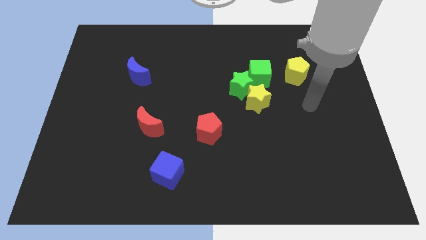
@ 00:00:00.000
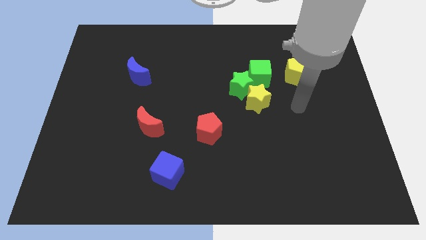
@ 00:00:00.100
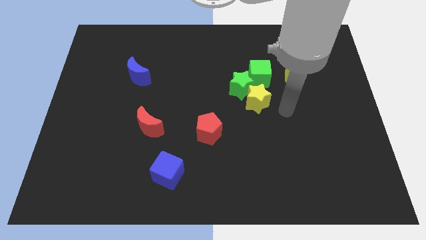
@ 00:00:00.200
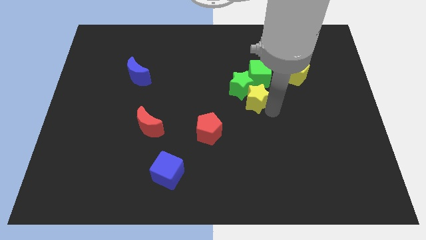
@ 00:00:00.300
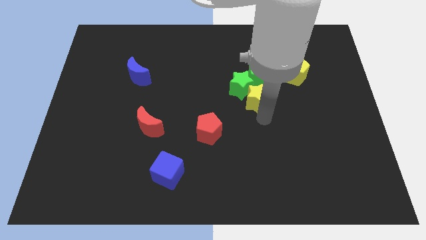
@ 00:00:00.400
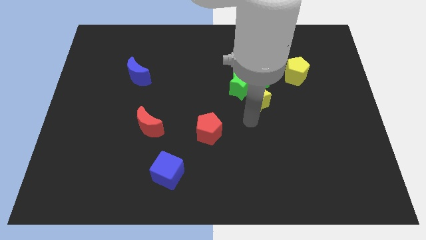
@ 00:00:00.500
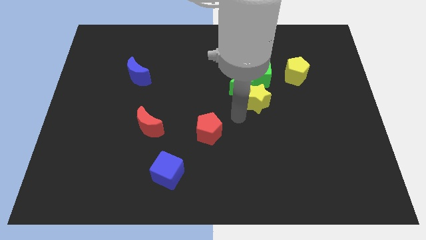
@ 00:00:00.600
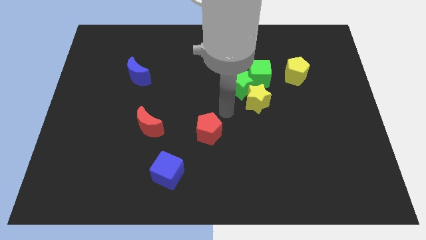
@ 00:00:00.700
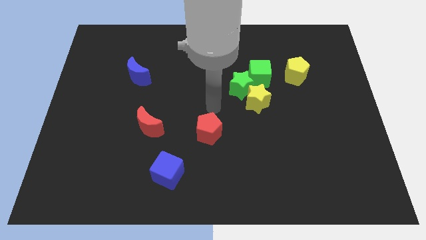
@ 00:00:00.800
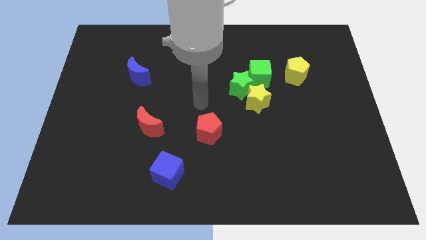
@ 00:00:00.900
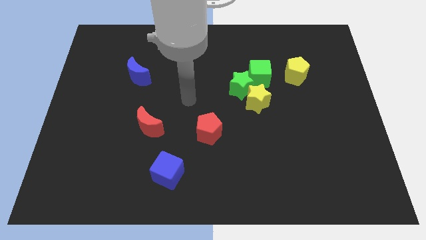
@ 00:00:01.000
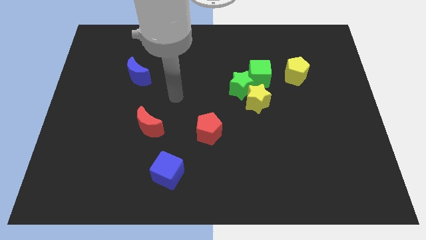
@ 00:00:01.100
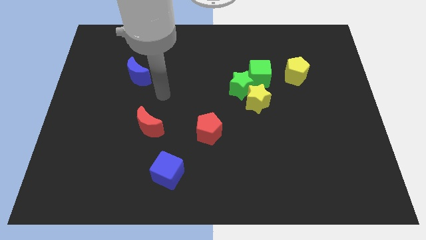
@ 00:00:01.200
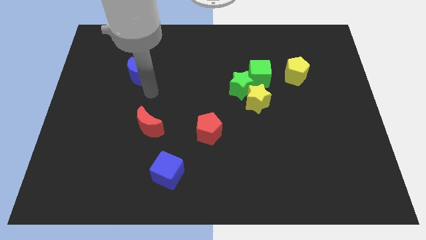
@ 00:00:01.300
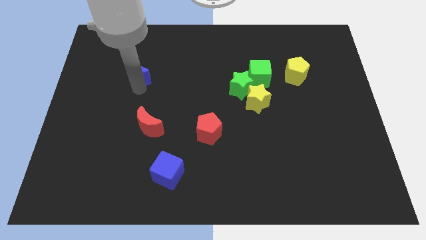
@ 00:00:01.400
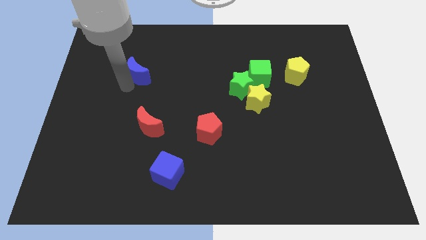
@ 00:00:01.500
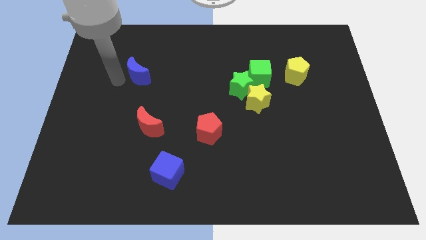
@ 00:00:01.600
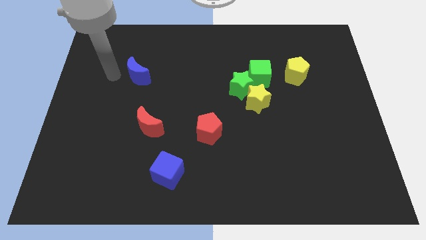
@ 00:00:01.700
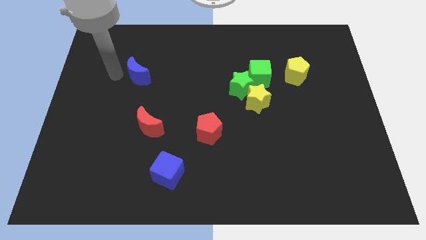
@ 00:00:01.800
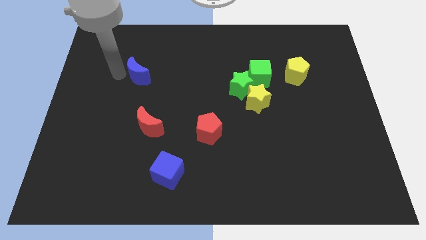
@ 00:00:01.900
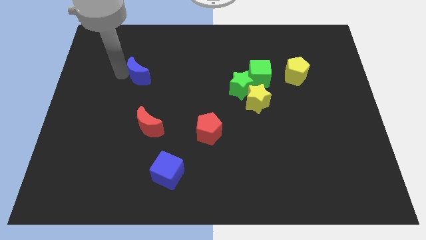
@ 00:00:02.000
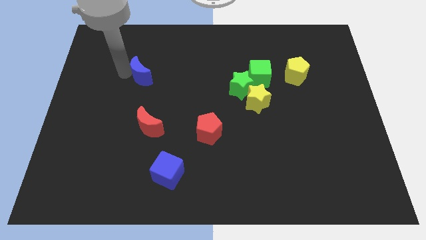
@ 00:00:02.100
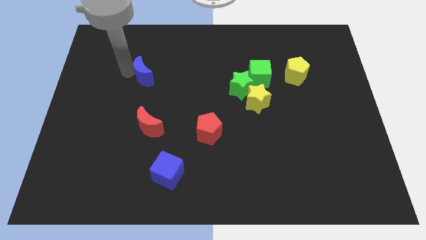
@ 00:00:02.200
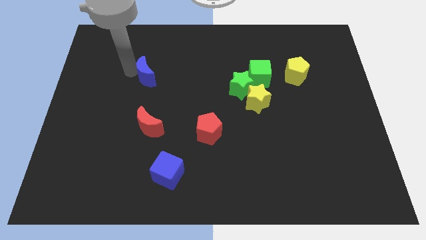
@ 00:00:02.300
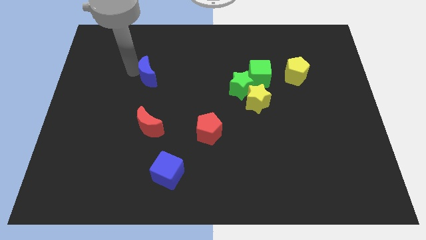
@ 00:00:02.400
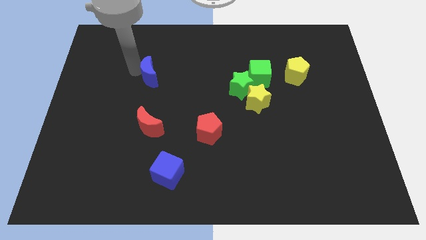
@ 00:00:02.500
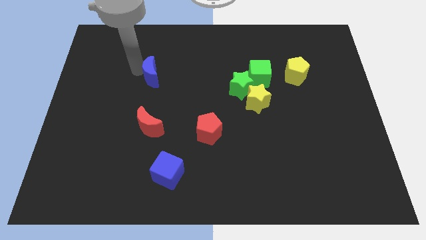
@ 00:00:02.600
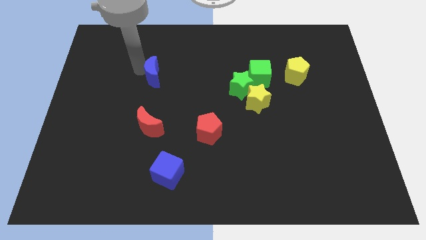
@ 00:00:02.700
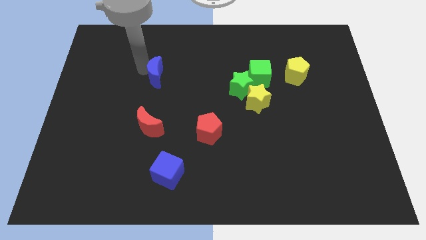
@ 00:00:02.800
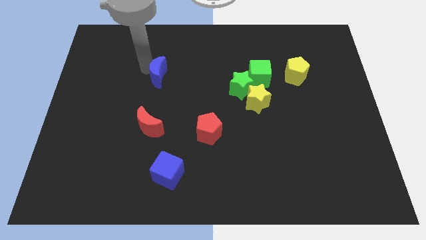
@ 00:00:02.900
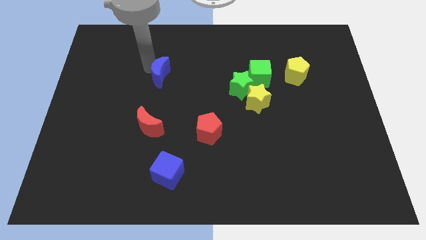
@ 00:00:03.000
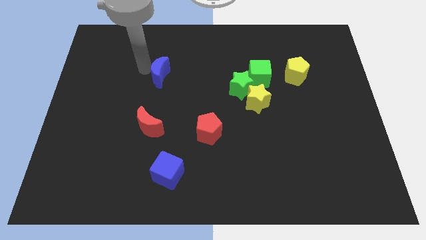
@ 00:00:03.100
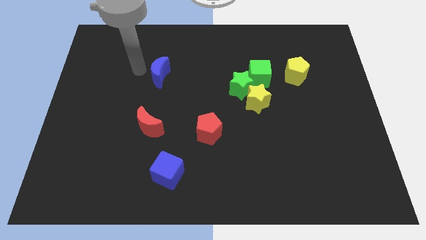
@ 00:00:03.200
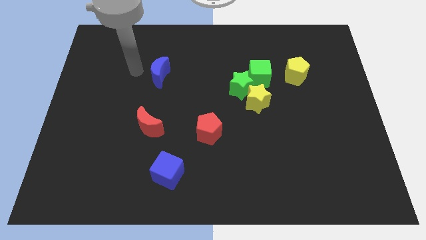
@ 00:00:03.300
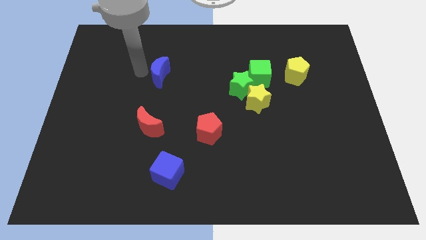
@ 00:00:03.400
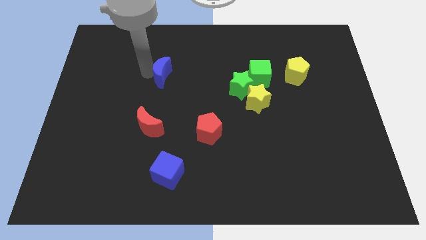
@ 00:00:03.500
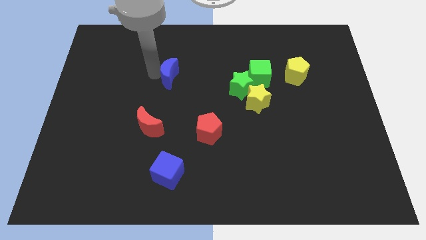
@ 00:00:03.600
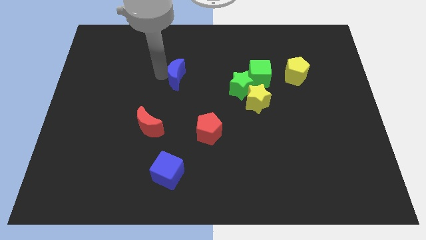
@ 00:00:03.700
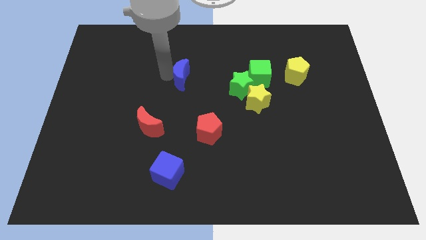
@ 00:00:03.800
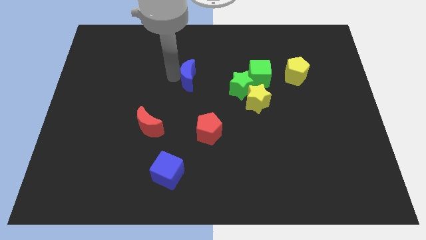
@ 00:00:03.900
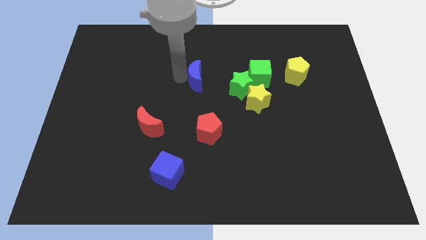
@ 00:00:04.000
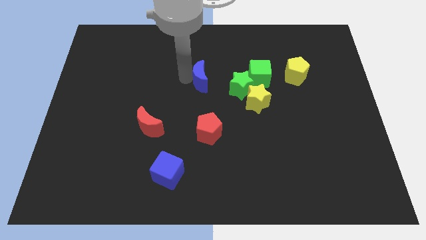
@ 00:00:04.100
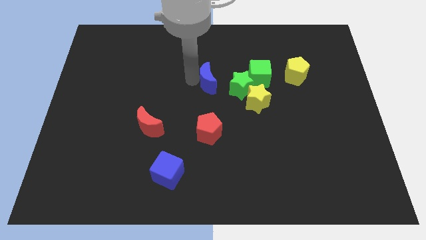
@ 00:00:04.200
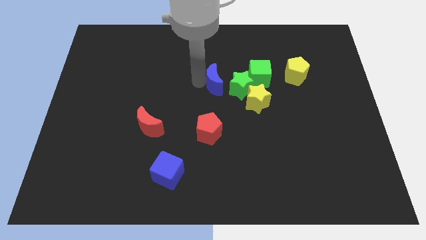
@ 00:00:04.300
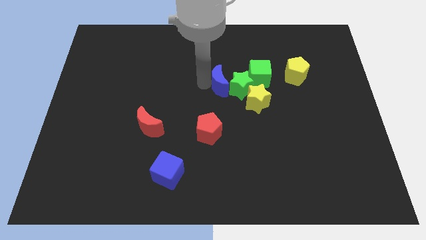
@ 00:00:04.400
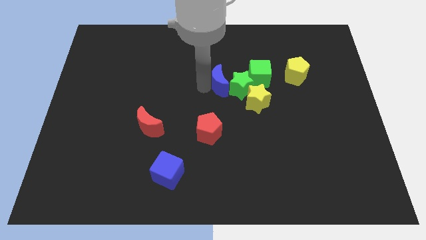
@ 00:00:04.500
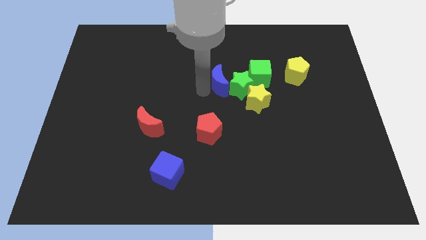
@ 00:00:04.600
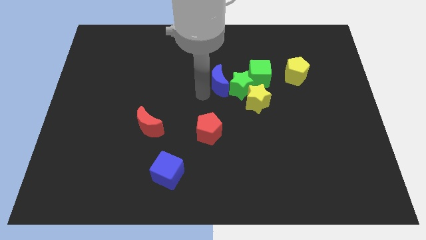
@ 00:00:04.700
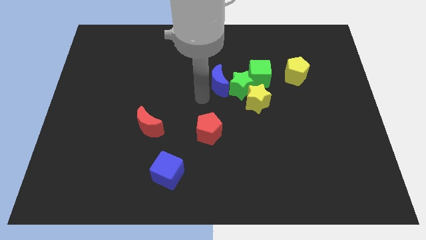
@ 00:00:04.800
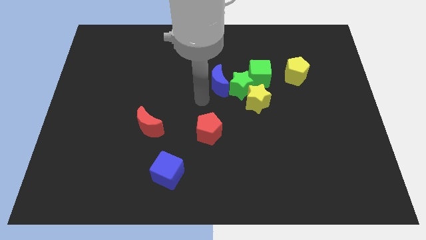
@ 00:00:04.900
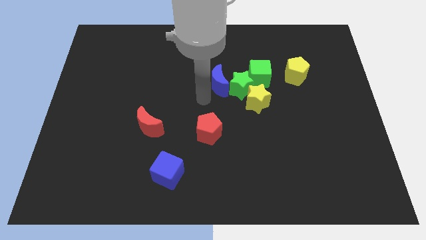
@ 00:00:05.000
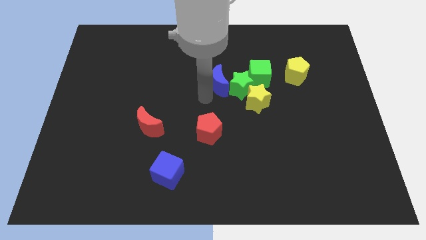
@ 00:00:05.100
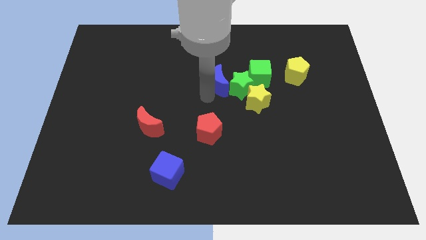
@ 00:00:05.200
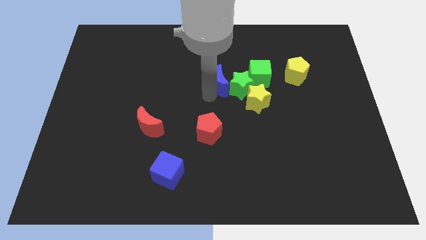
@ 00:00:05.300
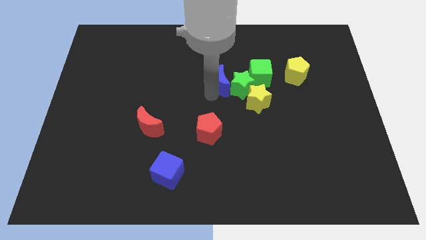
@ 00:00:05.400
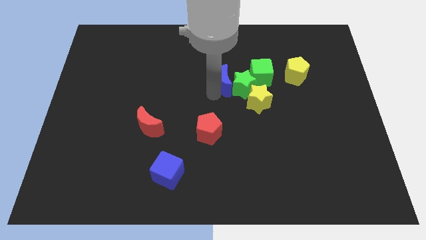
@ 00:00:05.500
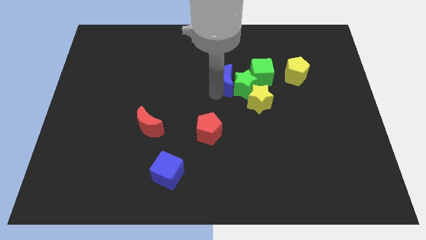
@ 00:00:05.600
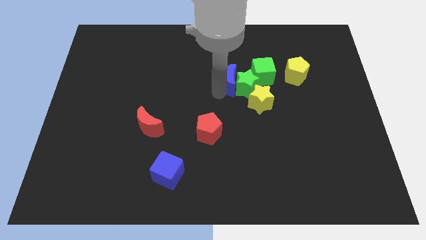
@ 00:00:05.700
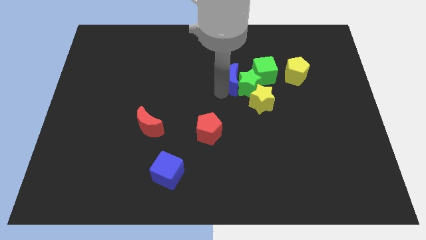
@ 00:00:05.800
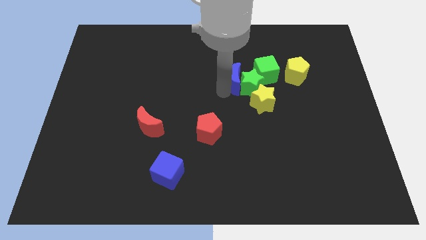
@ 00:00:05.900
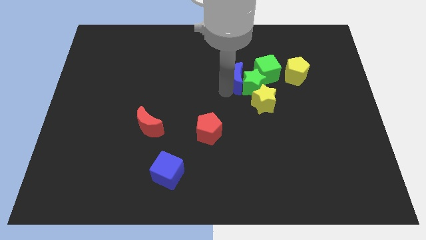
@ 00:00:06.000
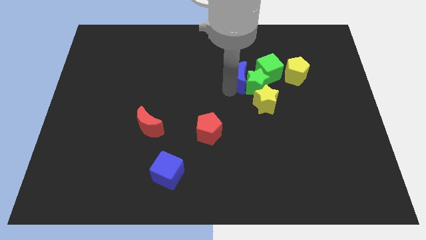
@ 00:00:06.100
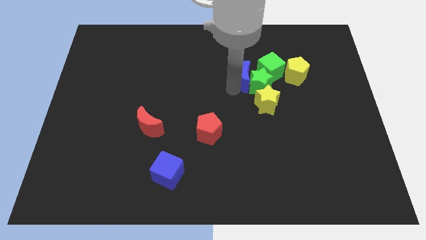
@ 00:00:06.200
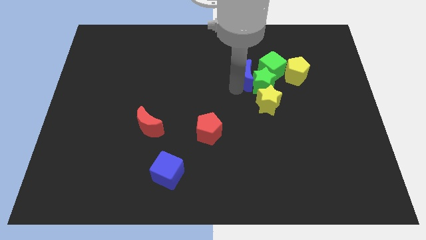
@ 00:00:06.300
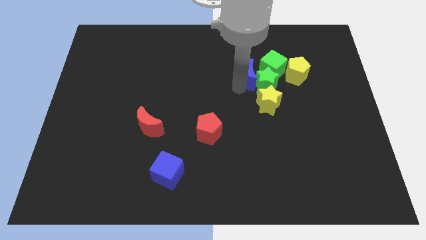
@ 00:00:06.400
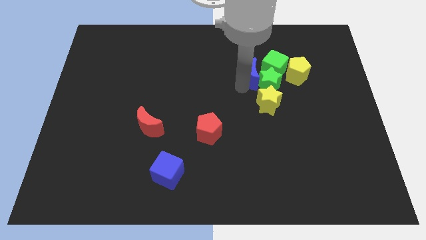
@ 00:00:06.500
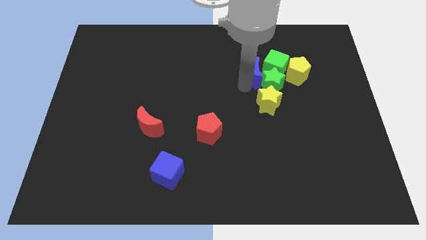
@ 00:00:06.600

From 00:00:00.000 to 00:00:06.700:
put the blue moon to the green cube

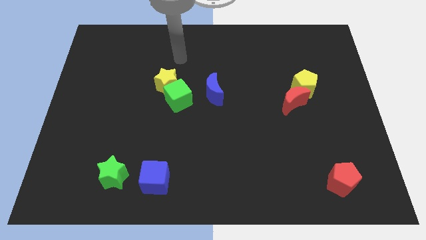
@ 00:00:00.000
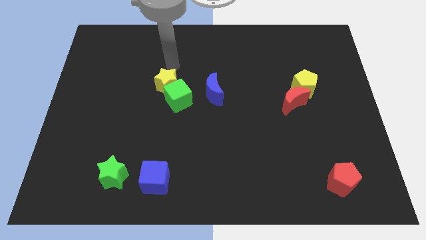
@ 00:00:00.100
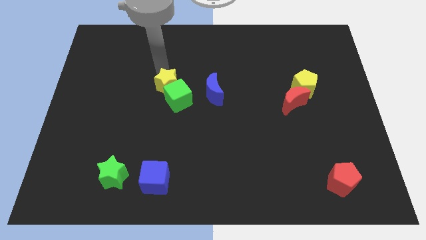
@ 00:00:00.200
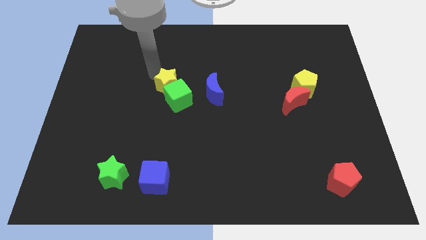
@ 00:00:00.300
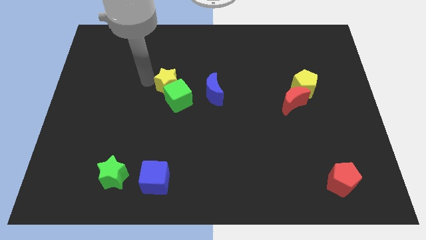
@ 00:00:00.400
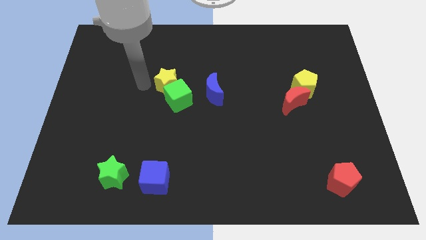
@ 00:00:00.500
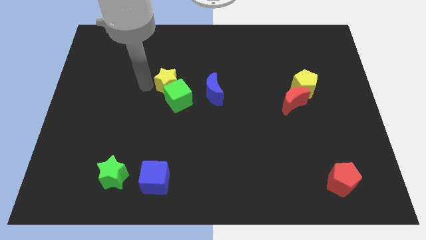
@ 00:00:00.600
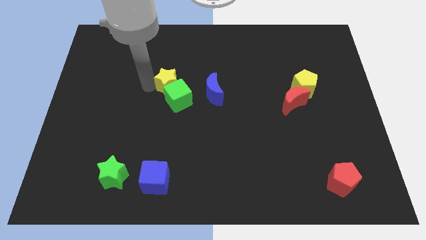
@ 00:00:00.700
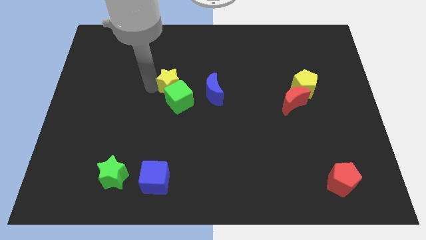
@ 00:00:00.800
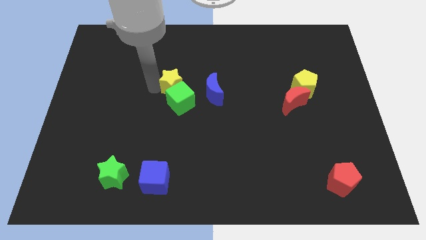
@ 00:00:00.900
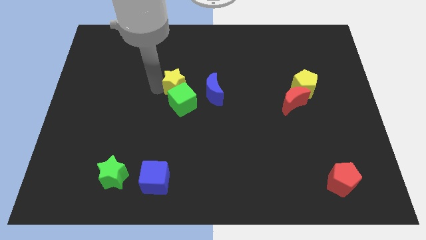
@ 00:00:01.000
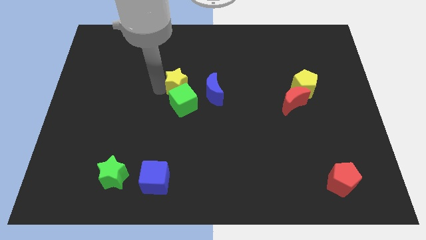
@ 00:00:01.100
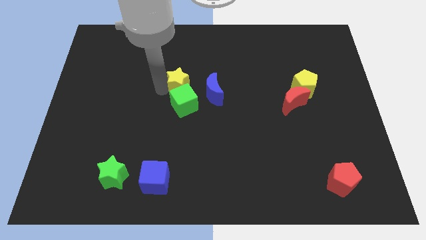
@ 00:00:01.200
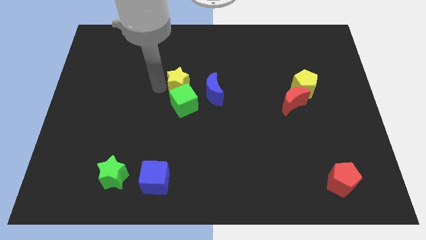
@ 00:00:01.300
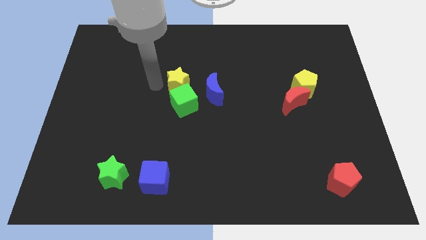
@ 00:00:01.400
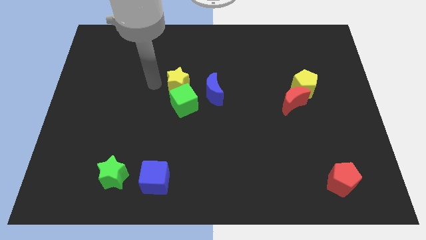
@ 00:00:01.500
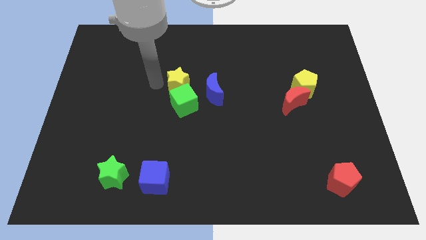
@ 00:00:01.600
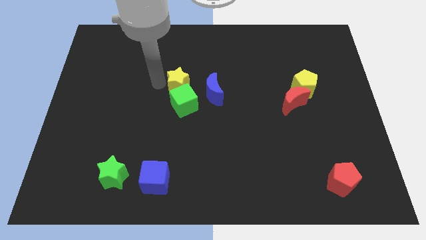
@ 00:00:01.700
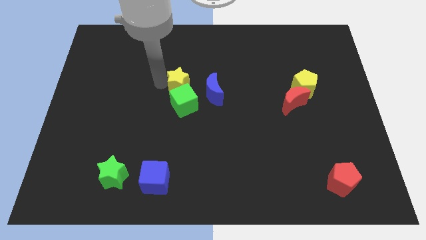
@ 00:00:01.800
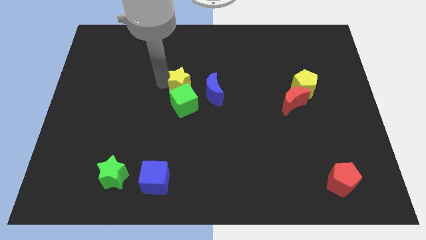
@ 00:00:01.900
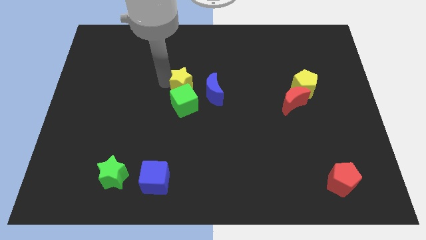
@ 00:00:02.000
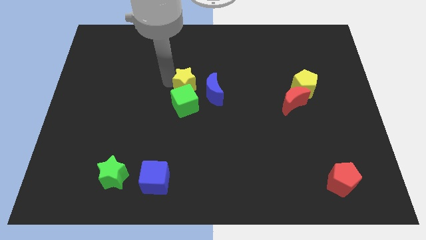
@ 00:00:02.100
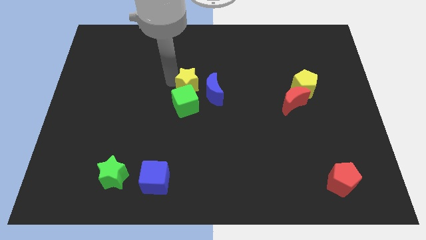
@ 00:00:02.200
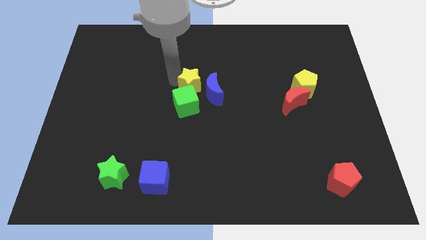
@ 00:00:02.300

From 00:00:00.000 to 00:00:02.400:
push the yellow star to the blue moon
